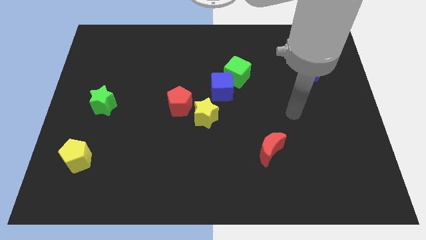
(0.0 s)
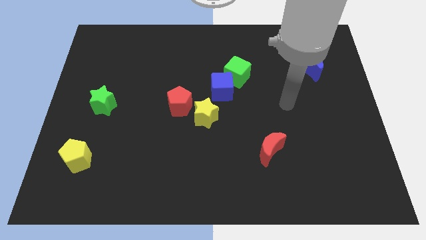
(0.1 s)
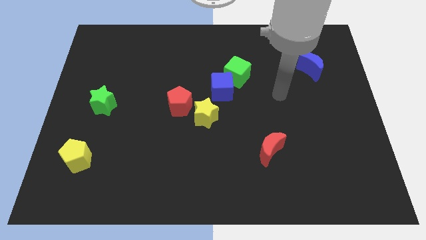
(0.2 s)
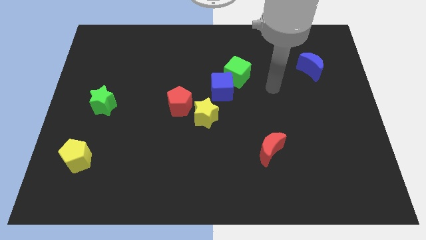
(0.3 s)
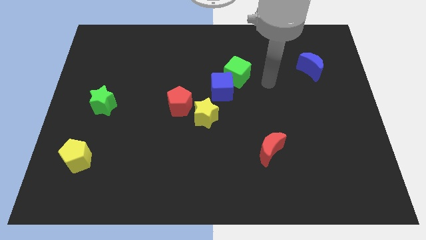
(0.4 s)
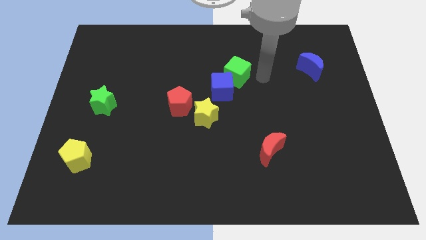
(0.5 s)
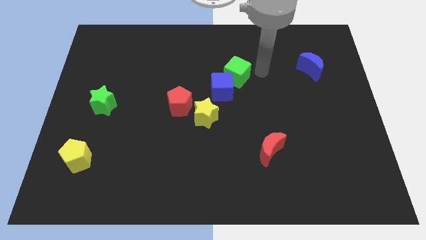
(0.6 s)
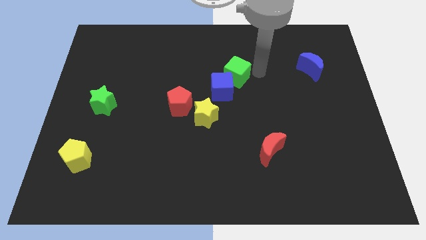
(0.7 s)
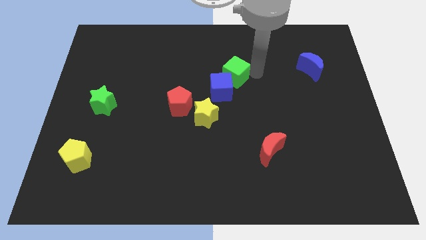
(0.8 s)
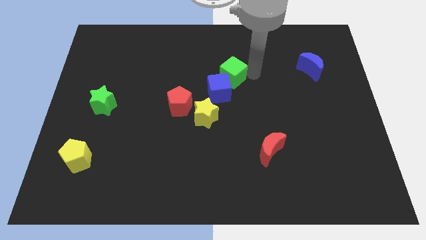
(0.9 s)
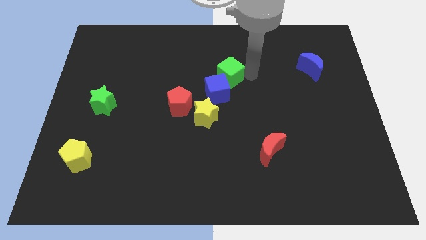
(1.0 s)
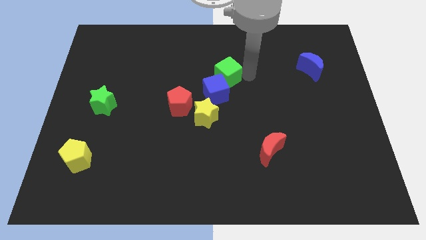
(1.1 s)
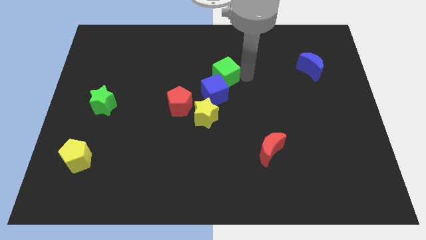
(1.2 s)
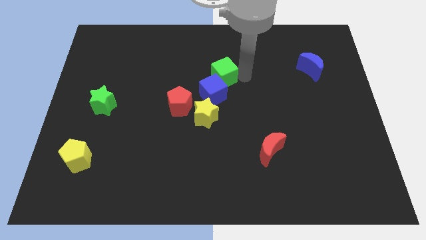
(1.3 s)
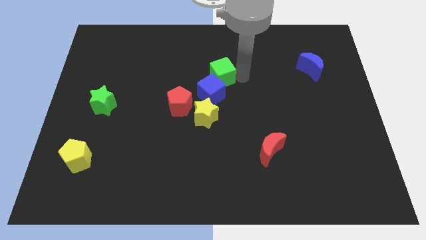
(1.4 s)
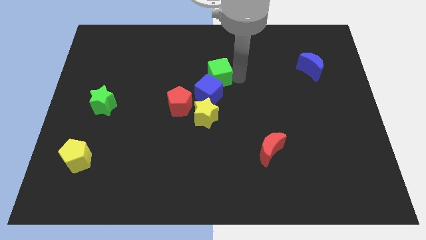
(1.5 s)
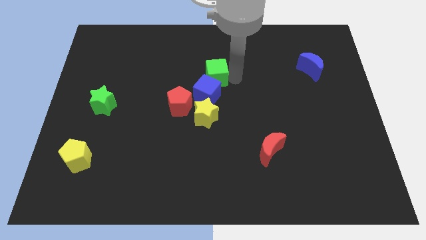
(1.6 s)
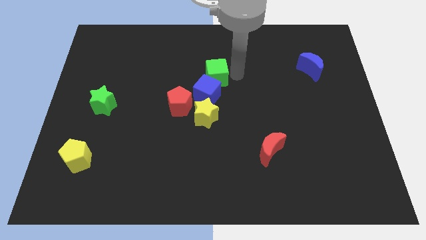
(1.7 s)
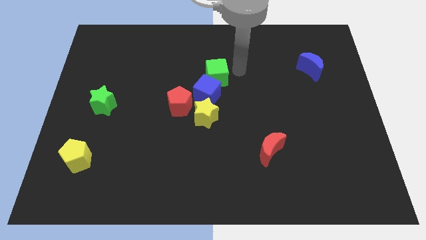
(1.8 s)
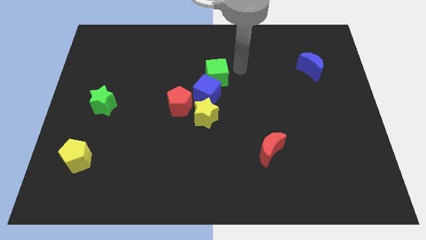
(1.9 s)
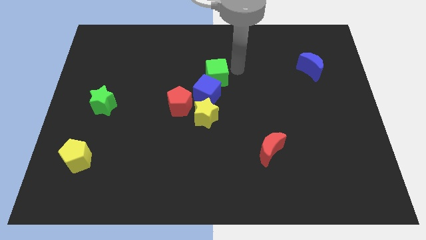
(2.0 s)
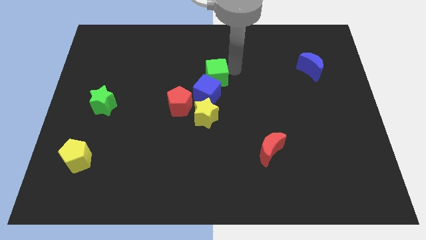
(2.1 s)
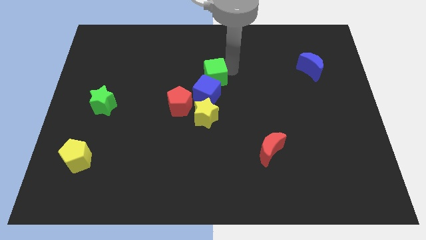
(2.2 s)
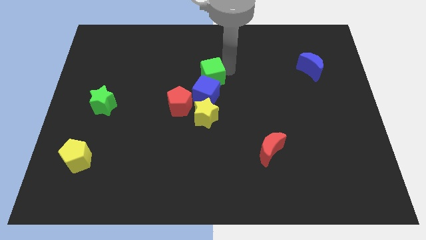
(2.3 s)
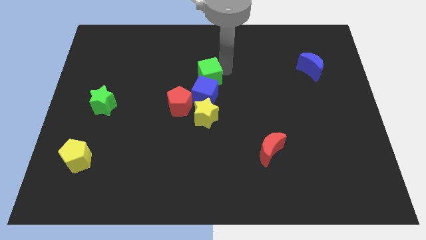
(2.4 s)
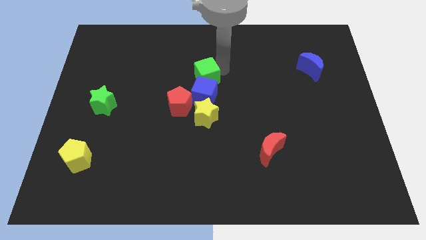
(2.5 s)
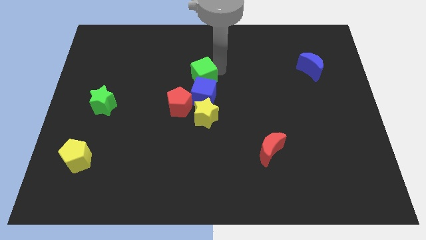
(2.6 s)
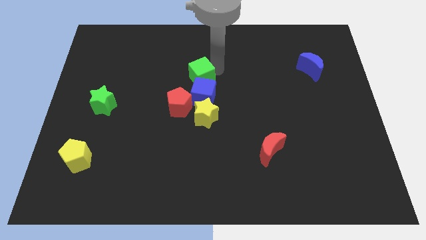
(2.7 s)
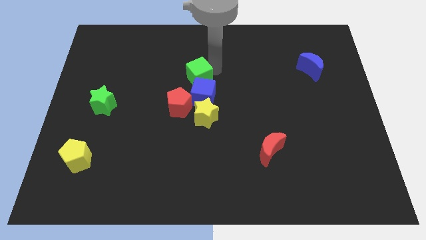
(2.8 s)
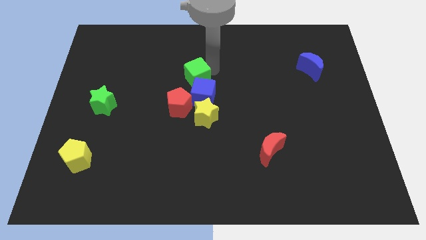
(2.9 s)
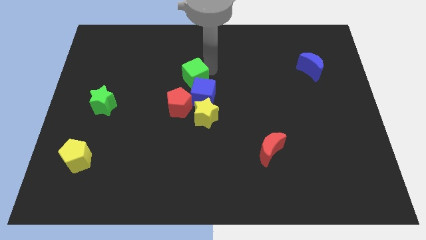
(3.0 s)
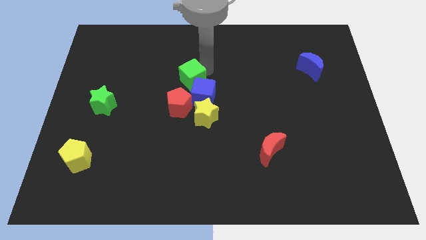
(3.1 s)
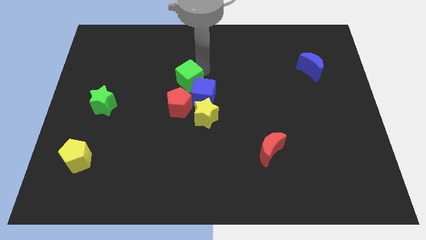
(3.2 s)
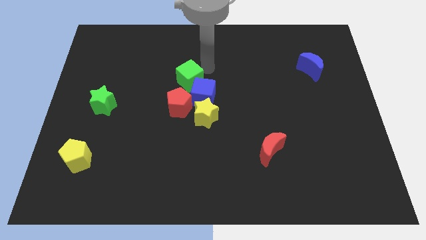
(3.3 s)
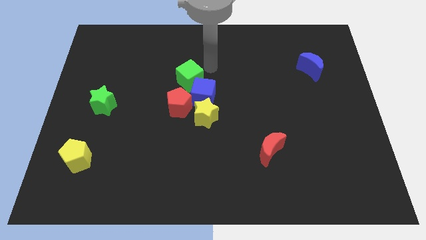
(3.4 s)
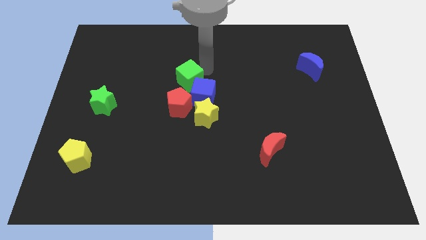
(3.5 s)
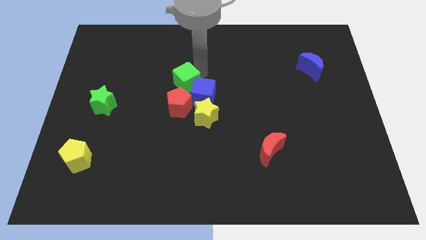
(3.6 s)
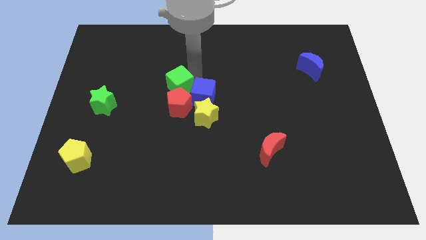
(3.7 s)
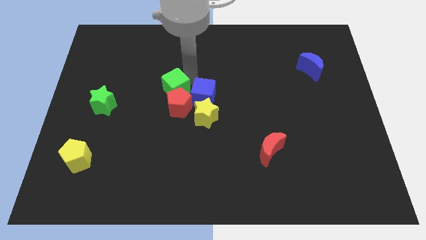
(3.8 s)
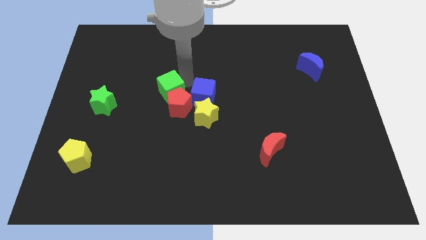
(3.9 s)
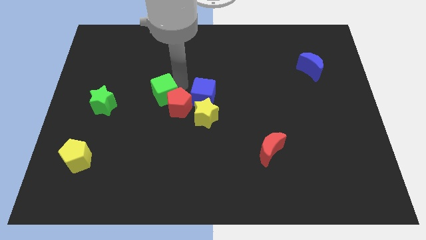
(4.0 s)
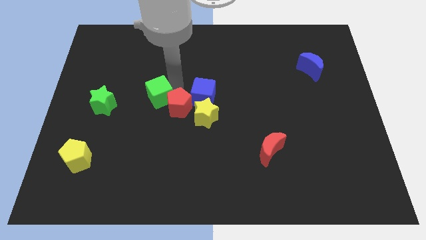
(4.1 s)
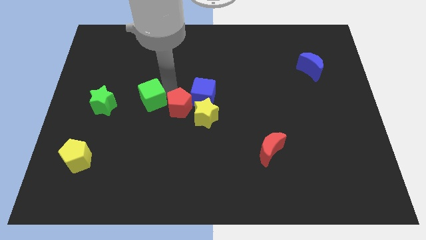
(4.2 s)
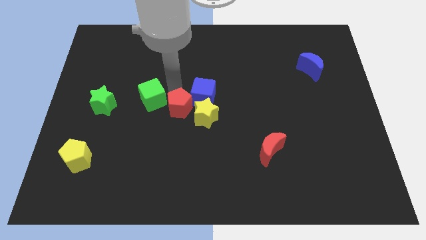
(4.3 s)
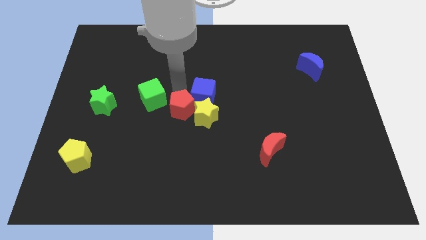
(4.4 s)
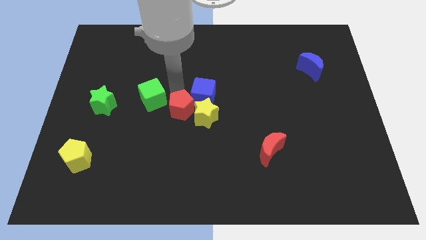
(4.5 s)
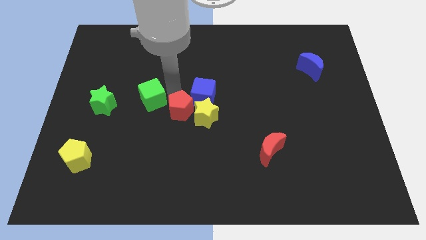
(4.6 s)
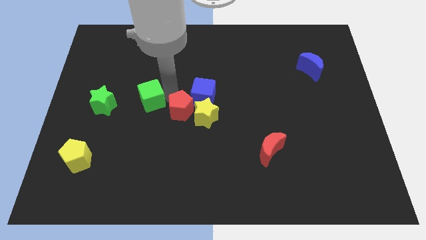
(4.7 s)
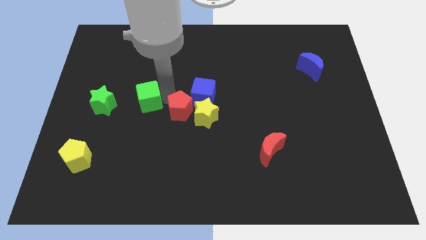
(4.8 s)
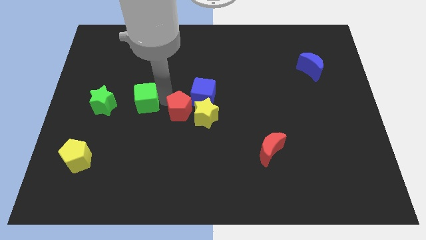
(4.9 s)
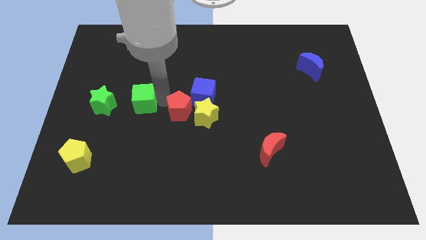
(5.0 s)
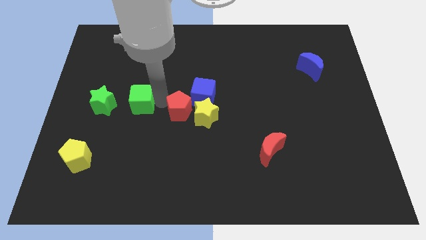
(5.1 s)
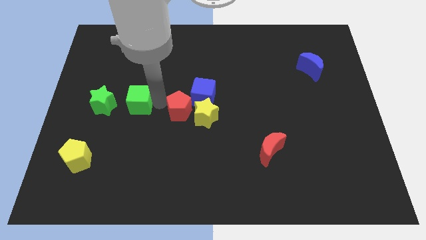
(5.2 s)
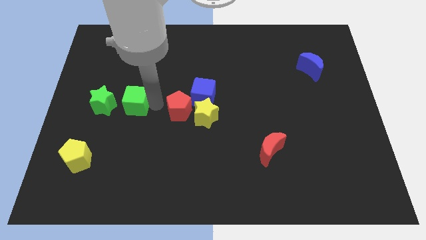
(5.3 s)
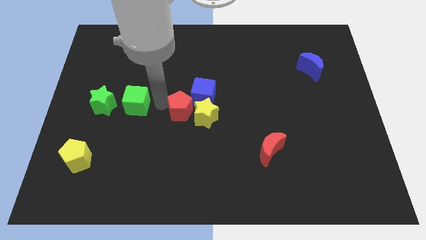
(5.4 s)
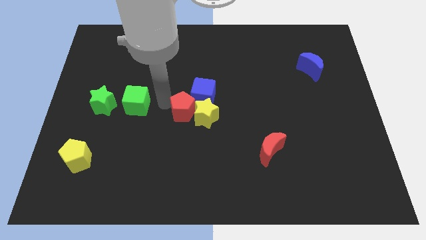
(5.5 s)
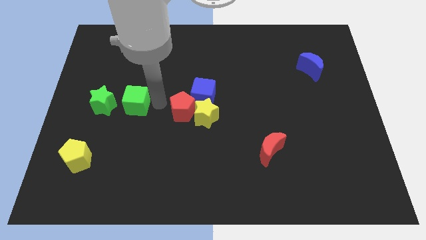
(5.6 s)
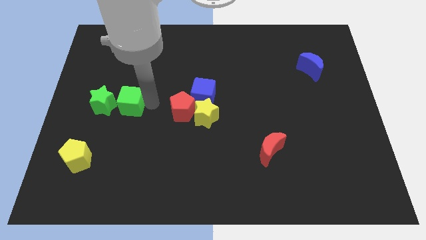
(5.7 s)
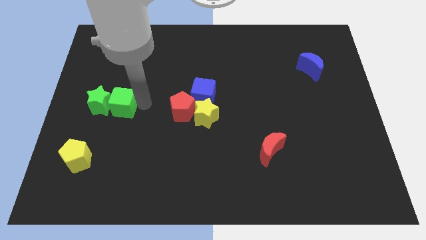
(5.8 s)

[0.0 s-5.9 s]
put the green cube next to the green star

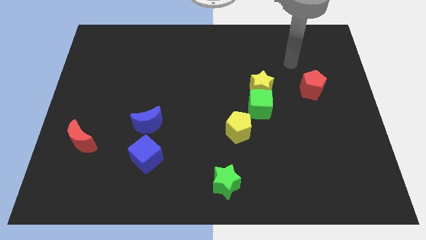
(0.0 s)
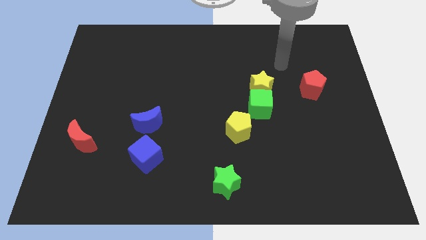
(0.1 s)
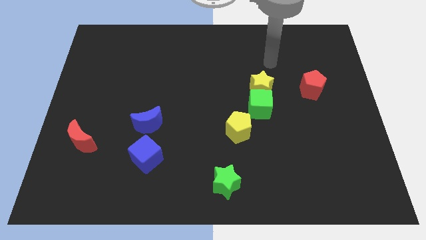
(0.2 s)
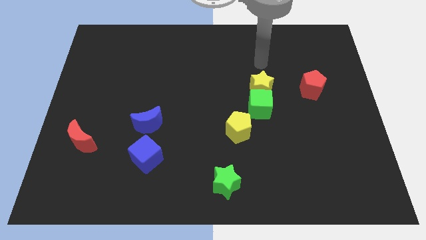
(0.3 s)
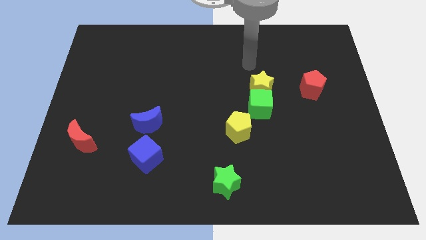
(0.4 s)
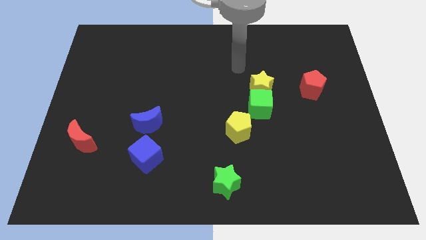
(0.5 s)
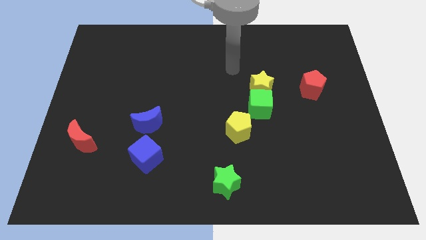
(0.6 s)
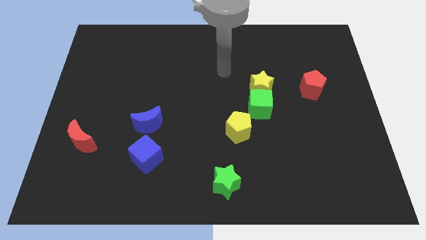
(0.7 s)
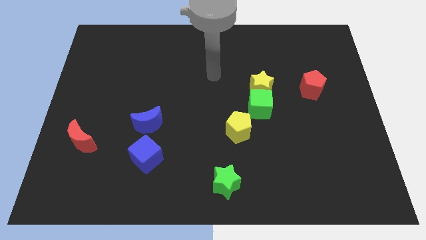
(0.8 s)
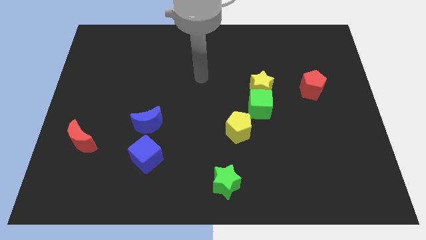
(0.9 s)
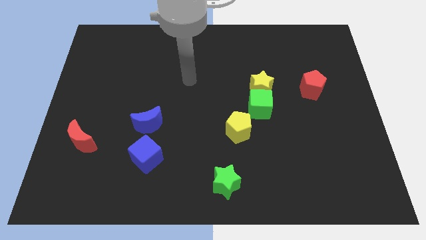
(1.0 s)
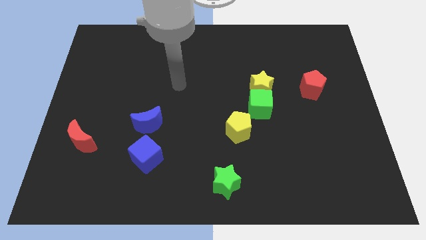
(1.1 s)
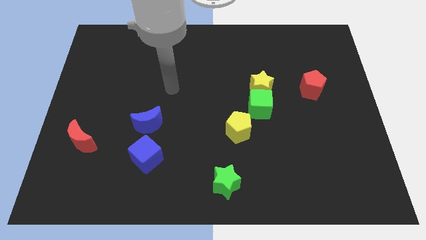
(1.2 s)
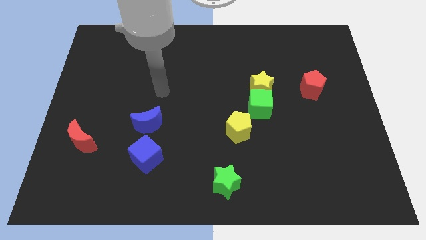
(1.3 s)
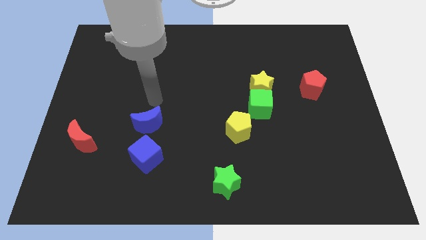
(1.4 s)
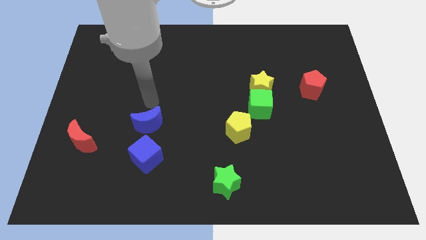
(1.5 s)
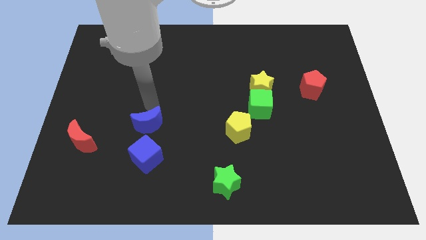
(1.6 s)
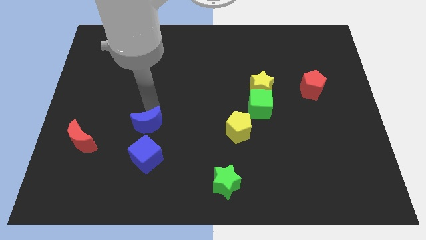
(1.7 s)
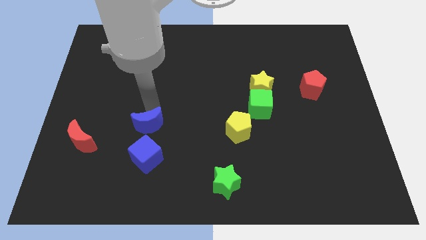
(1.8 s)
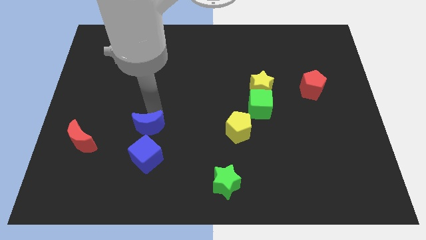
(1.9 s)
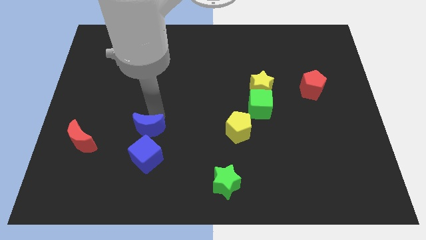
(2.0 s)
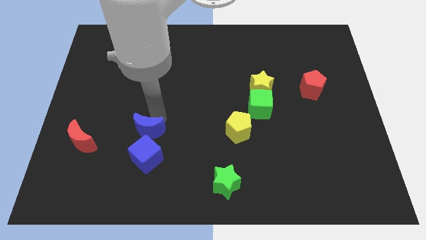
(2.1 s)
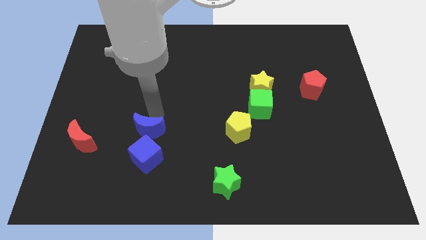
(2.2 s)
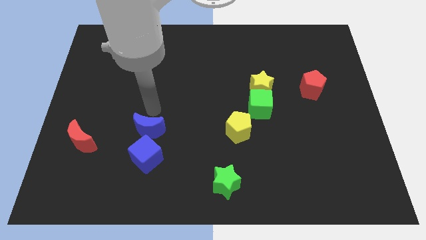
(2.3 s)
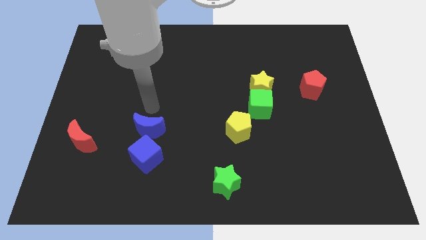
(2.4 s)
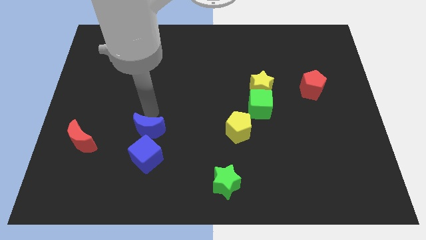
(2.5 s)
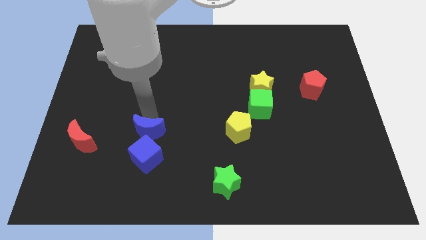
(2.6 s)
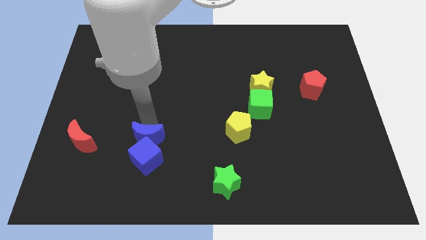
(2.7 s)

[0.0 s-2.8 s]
slide the blue moon to the blue cube
